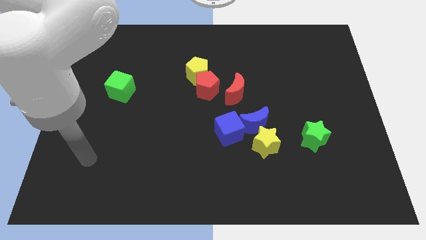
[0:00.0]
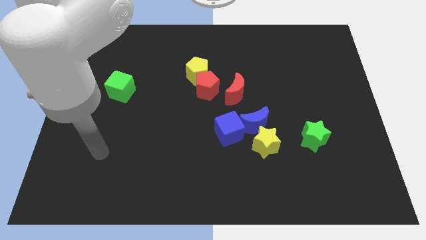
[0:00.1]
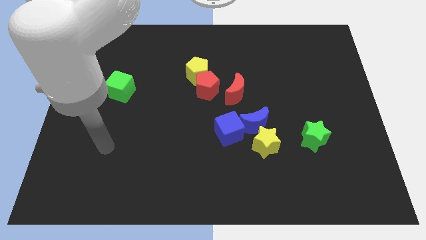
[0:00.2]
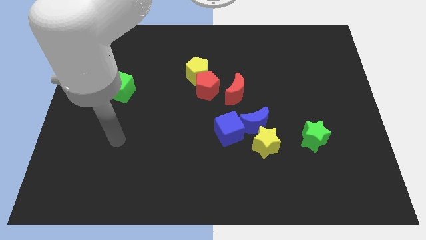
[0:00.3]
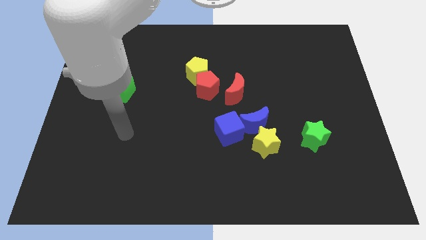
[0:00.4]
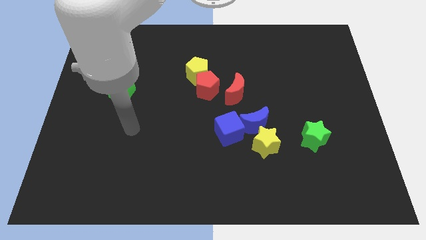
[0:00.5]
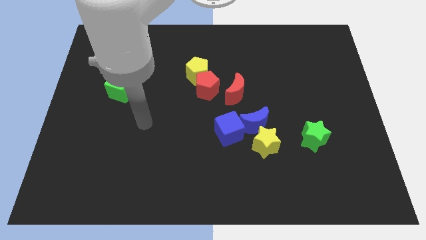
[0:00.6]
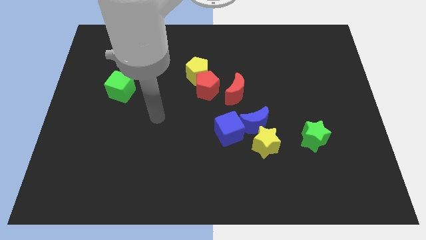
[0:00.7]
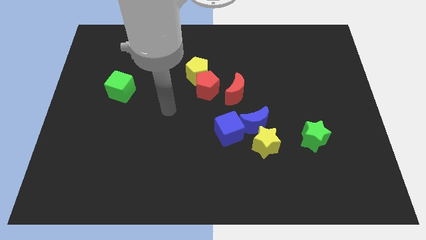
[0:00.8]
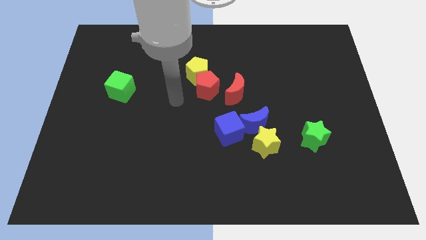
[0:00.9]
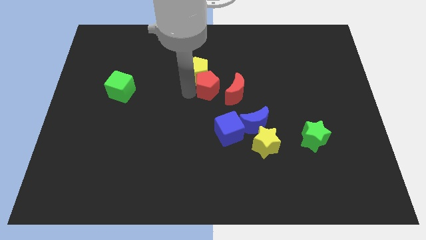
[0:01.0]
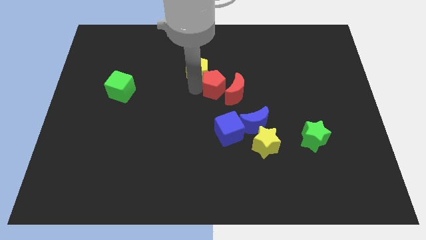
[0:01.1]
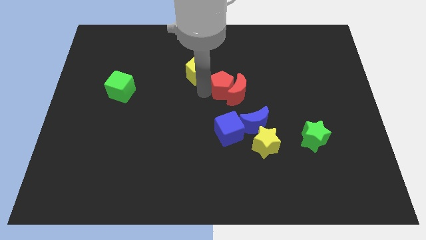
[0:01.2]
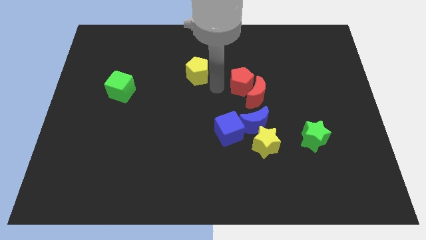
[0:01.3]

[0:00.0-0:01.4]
separate the yellow pentagon from the red pentagon

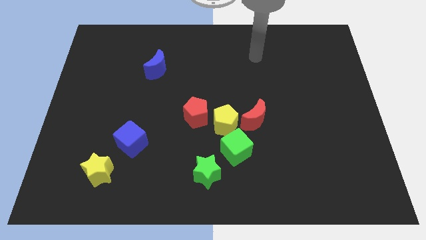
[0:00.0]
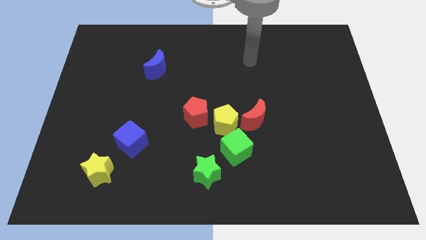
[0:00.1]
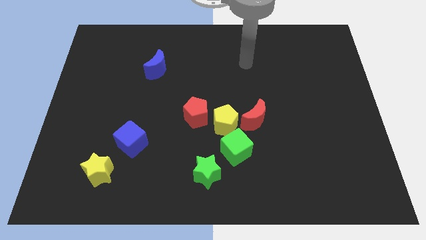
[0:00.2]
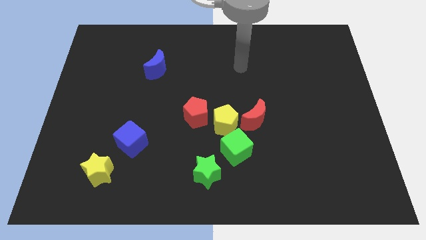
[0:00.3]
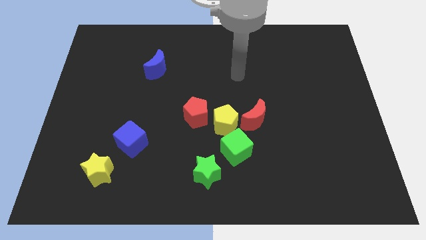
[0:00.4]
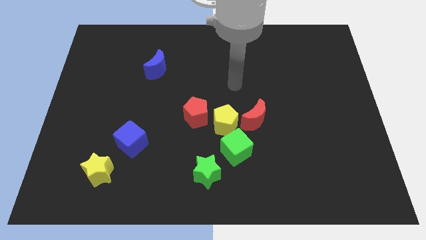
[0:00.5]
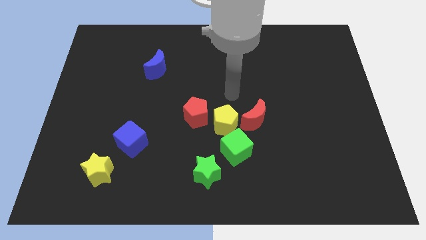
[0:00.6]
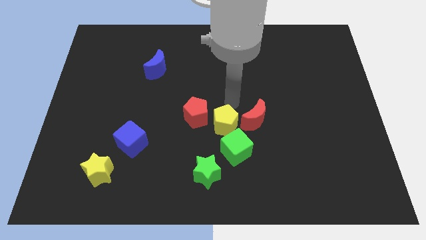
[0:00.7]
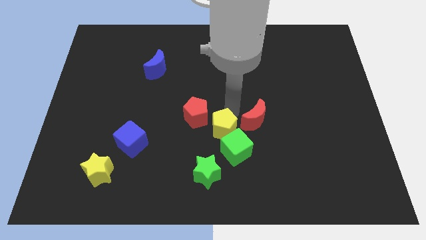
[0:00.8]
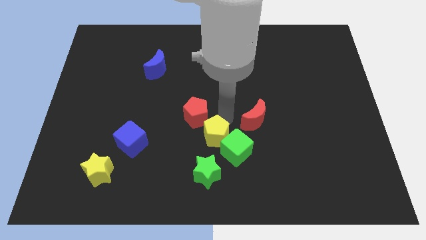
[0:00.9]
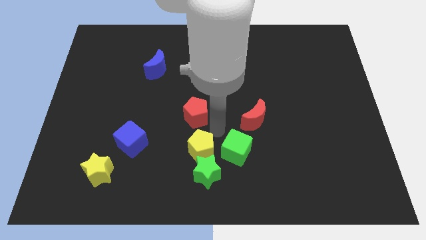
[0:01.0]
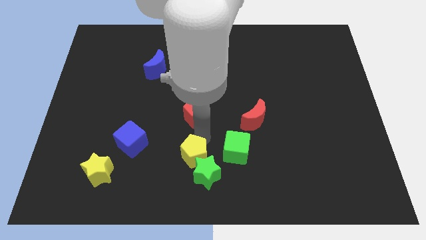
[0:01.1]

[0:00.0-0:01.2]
pull the red pentagon apart from the yellow pentagon

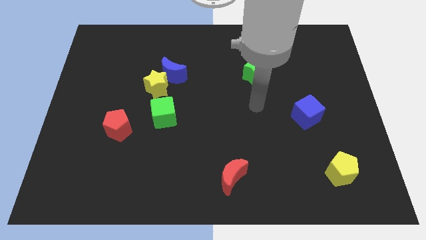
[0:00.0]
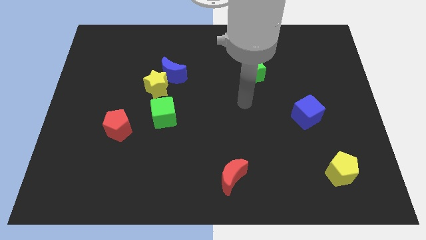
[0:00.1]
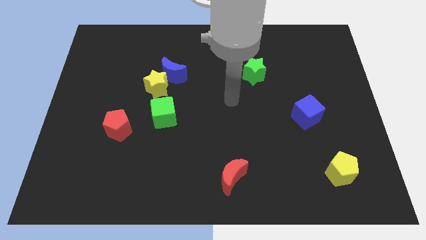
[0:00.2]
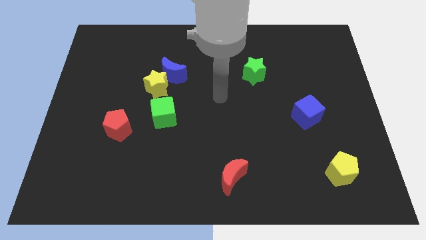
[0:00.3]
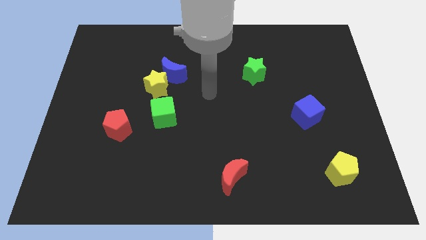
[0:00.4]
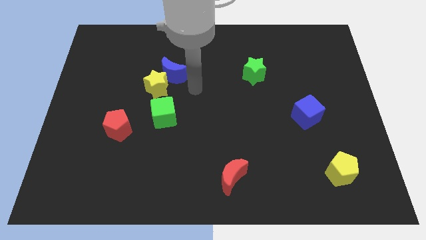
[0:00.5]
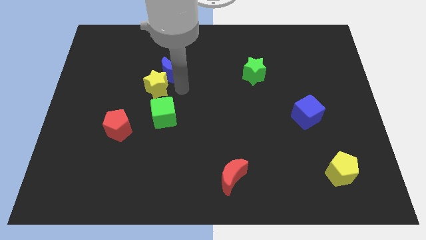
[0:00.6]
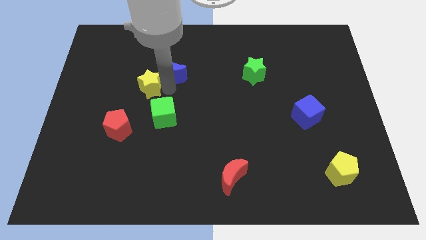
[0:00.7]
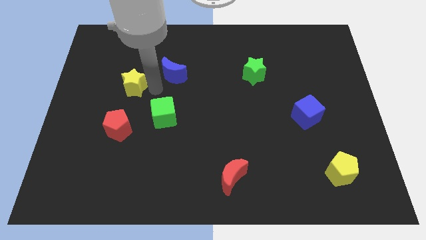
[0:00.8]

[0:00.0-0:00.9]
separate the blue moon from the yellow star

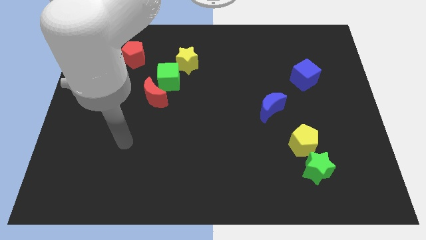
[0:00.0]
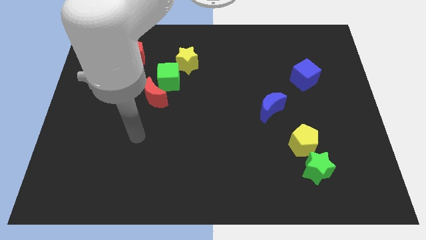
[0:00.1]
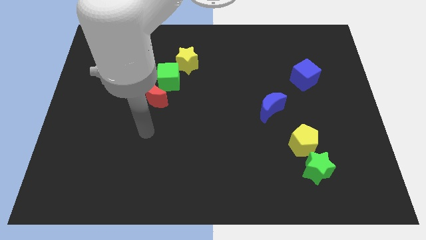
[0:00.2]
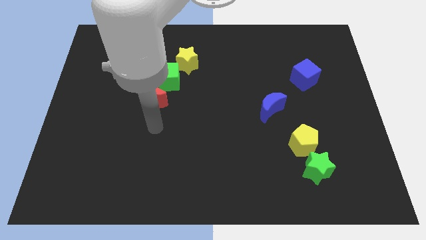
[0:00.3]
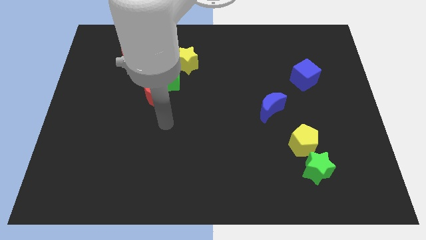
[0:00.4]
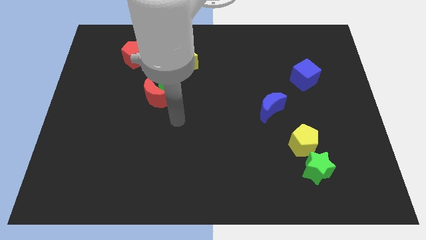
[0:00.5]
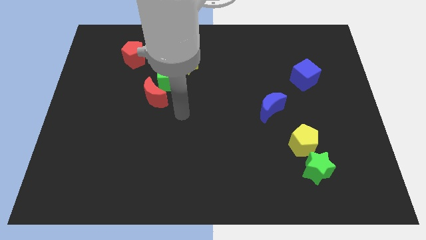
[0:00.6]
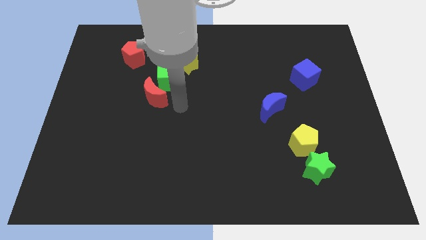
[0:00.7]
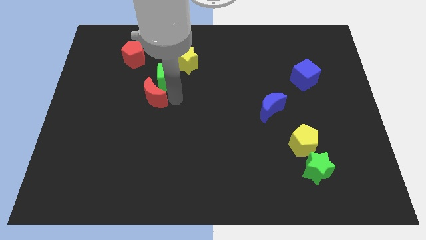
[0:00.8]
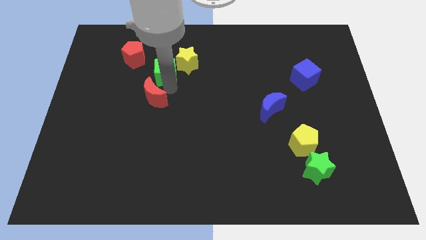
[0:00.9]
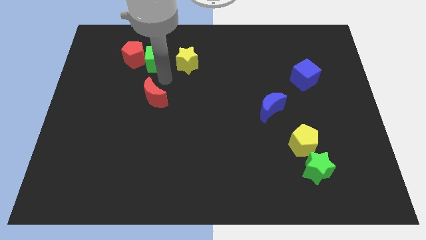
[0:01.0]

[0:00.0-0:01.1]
separate the red moon from the green cube

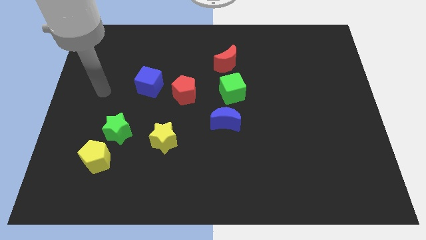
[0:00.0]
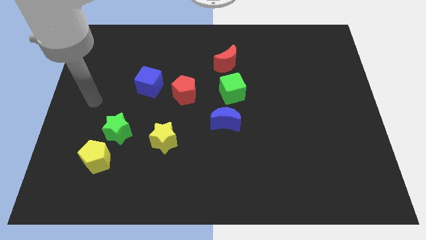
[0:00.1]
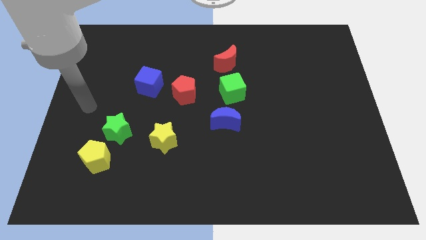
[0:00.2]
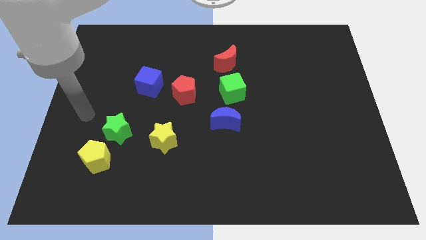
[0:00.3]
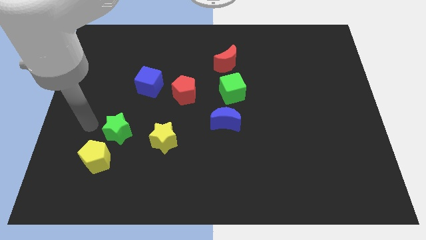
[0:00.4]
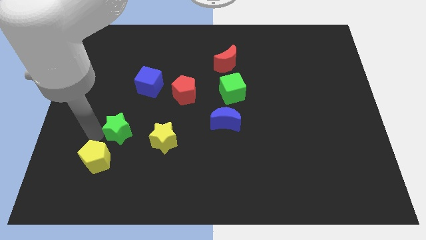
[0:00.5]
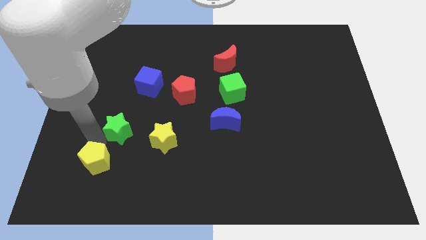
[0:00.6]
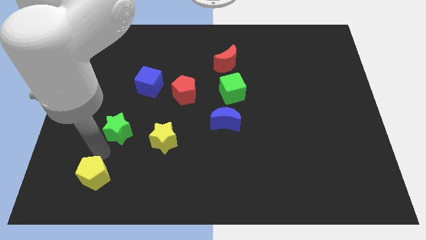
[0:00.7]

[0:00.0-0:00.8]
pull the green star apart from the yellow pentagon

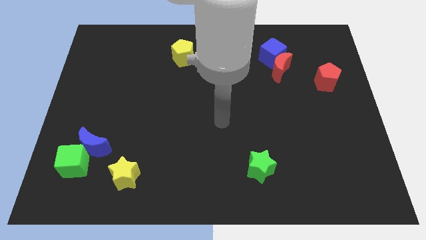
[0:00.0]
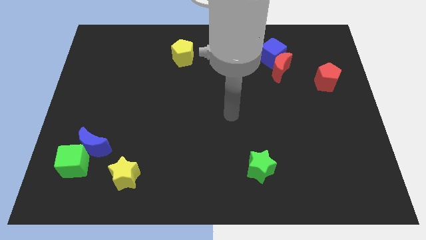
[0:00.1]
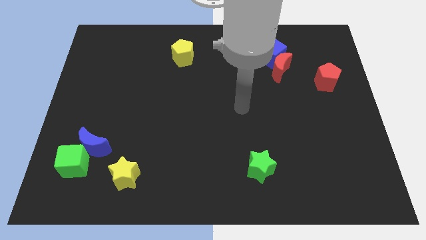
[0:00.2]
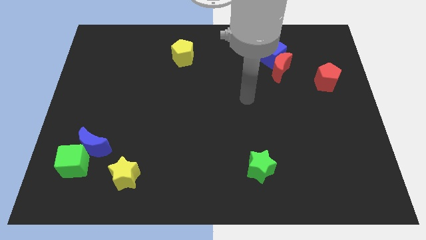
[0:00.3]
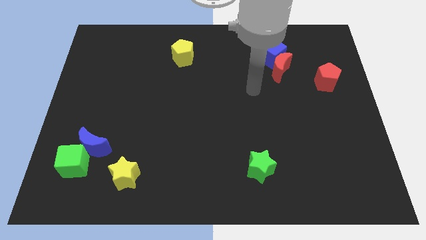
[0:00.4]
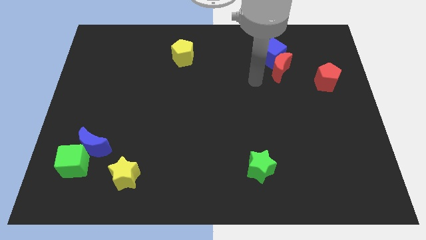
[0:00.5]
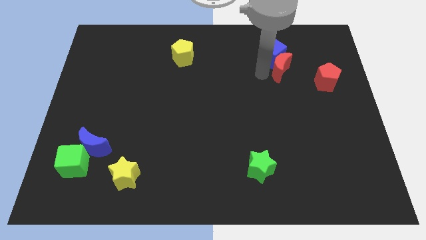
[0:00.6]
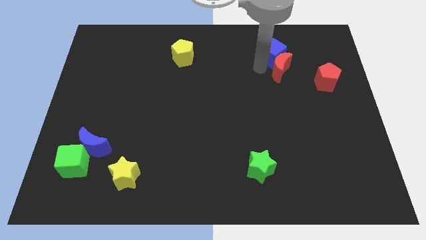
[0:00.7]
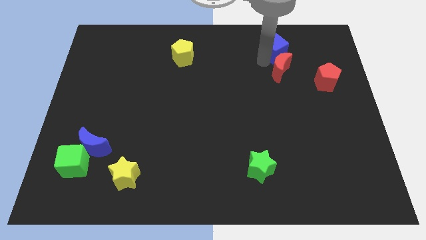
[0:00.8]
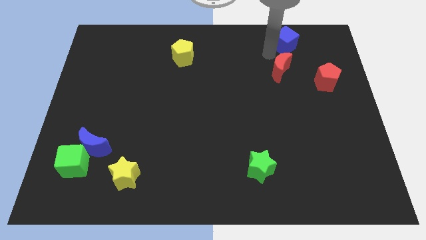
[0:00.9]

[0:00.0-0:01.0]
pull the red moon apart from the blue cube

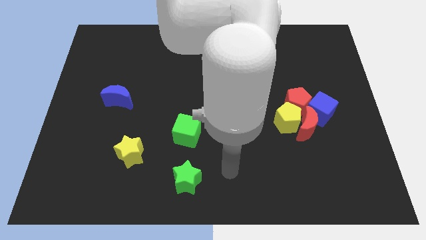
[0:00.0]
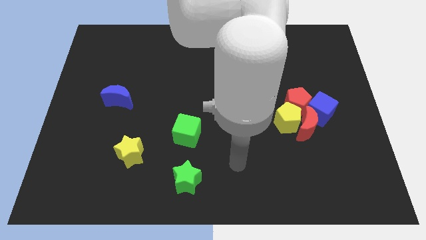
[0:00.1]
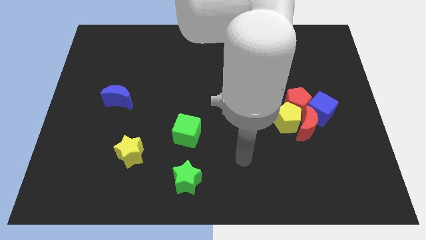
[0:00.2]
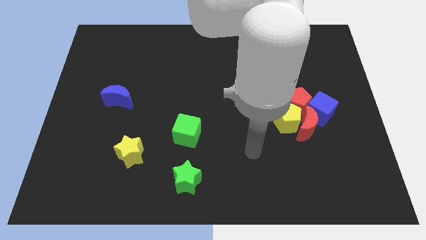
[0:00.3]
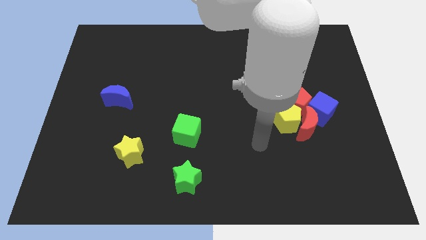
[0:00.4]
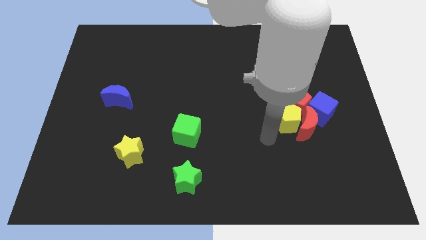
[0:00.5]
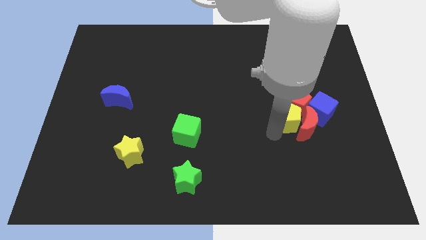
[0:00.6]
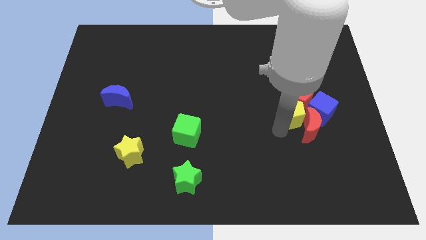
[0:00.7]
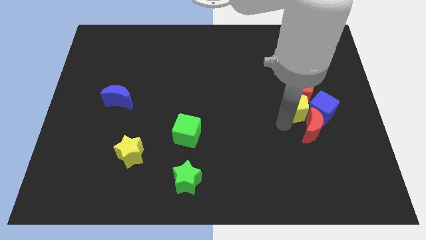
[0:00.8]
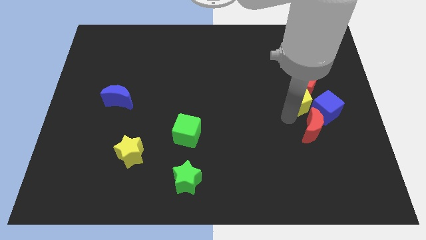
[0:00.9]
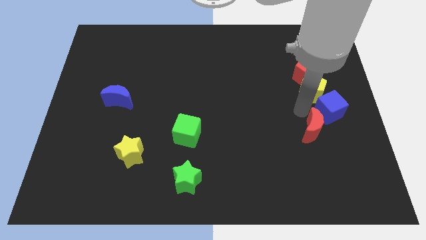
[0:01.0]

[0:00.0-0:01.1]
pull the red moon apart from the group of blocks

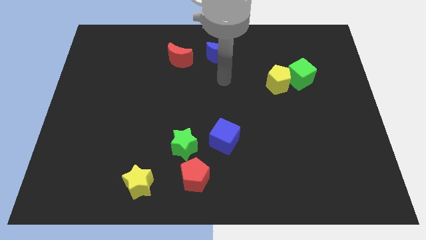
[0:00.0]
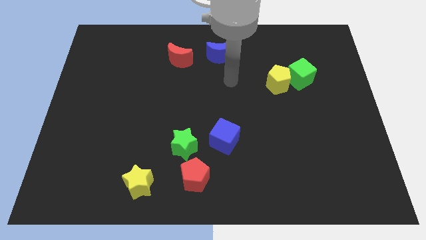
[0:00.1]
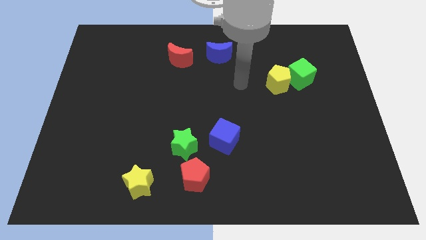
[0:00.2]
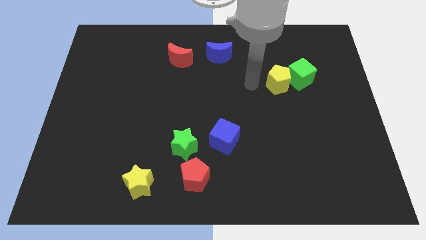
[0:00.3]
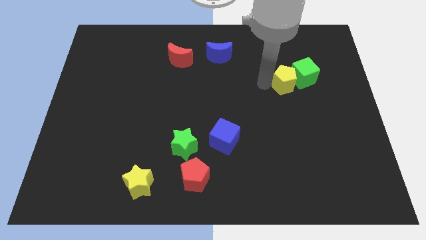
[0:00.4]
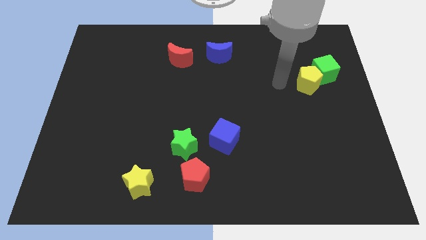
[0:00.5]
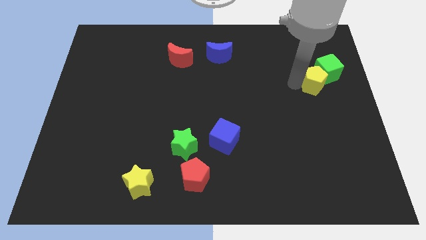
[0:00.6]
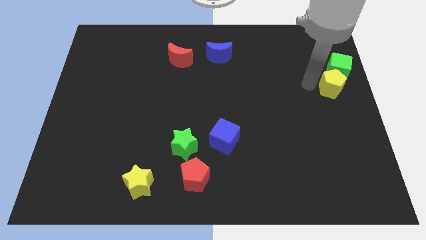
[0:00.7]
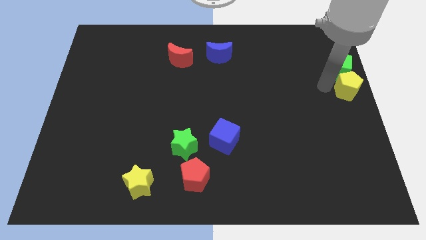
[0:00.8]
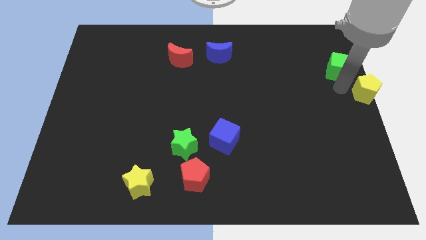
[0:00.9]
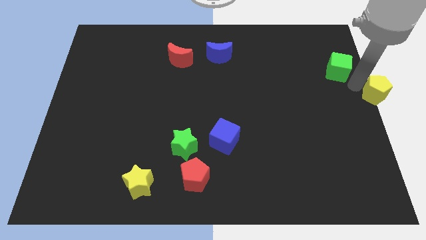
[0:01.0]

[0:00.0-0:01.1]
move the green cube away from the yellow pentagon

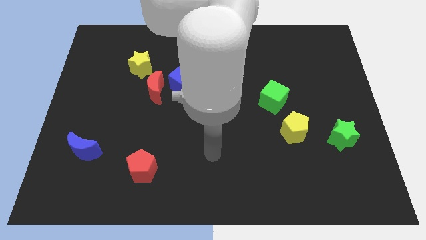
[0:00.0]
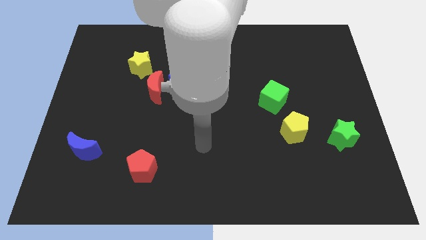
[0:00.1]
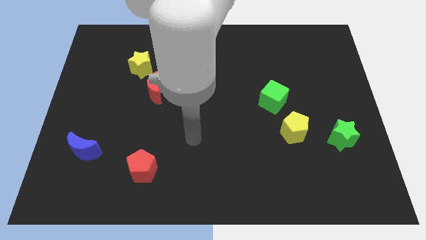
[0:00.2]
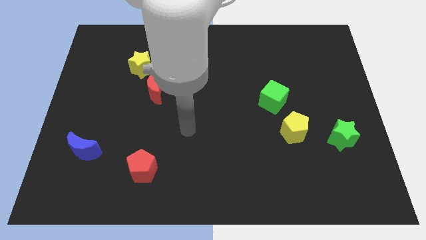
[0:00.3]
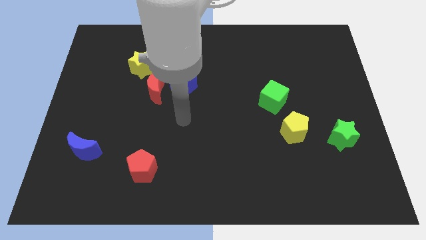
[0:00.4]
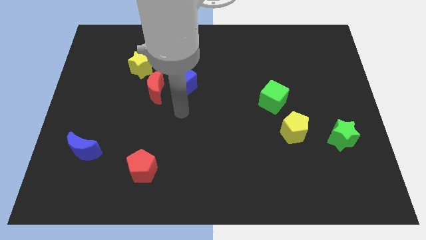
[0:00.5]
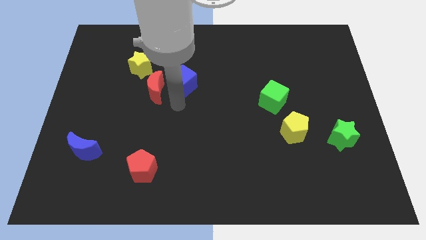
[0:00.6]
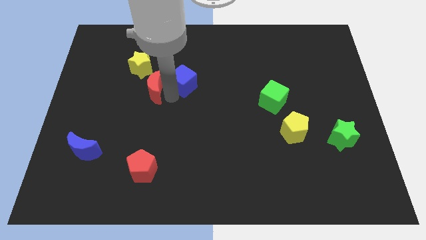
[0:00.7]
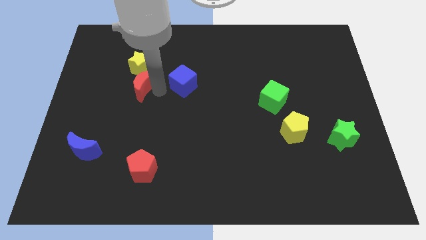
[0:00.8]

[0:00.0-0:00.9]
pull the blue cube apart from the red moon

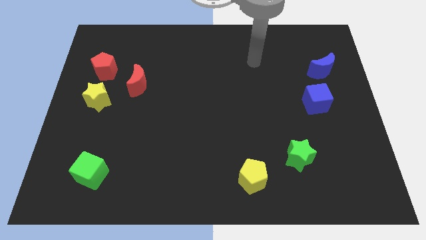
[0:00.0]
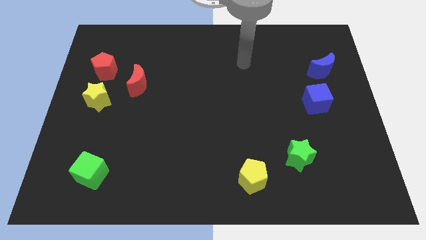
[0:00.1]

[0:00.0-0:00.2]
pull the red pentagon apart from the yellow star
